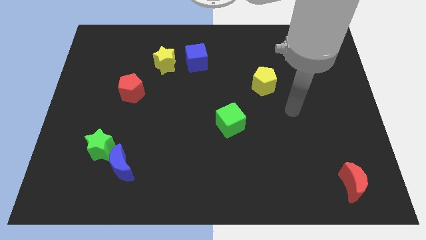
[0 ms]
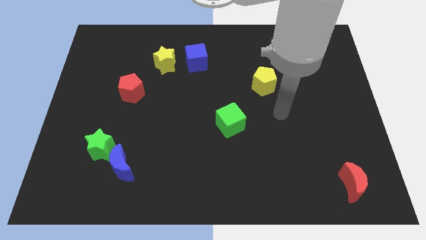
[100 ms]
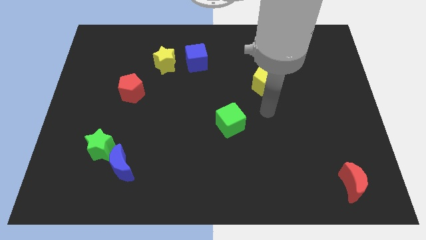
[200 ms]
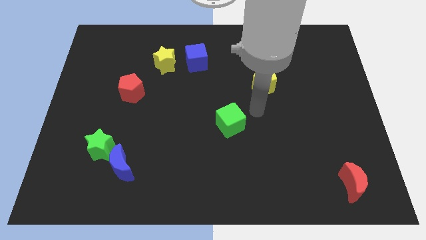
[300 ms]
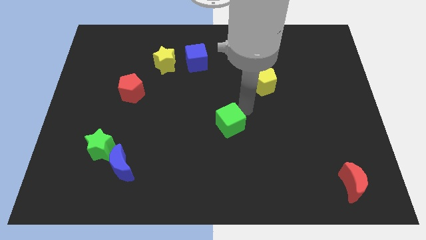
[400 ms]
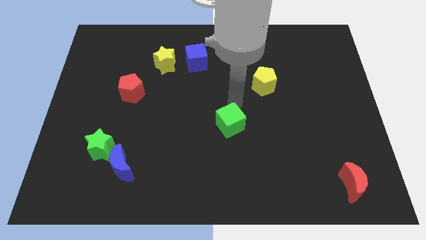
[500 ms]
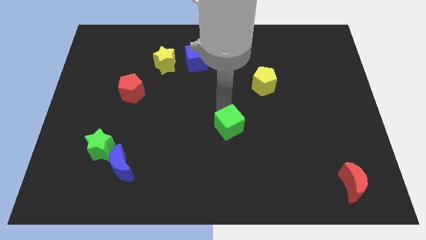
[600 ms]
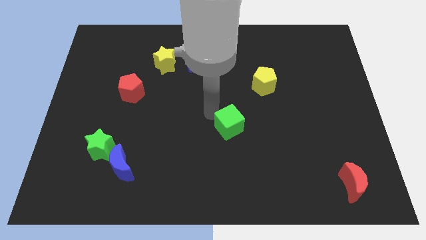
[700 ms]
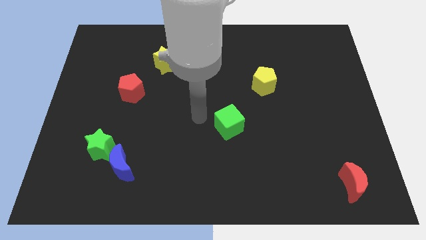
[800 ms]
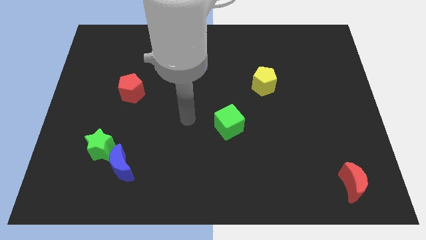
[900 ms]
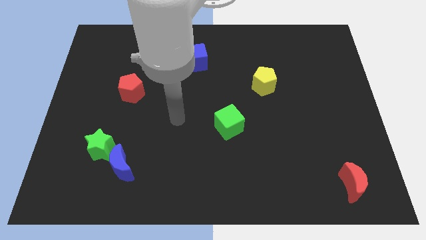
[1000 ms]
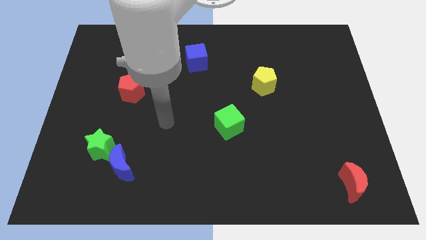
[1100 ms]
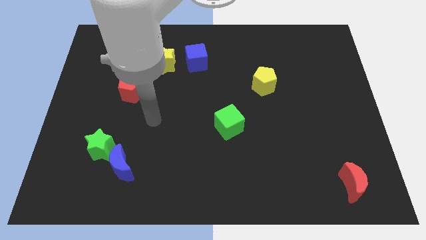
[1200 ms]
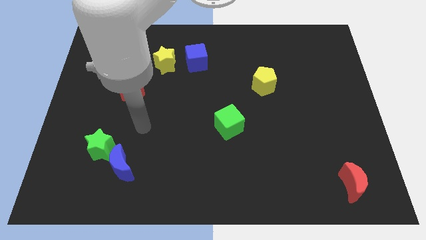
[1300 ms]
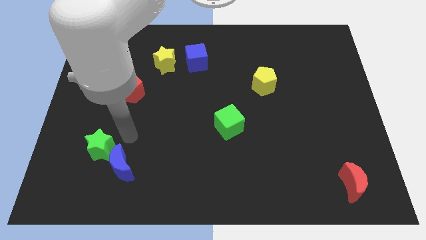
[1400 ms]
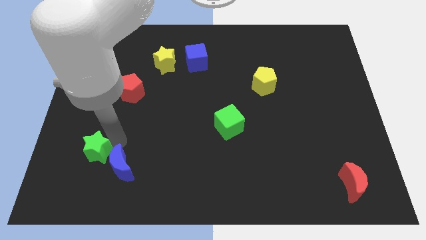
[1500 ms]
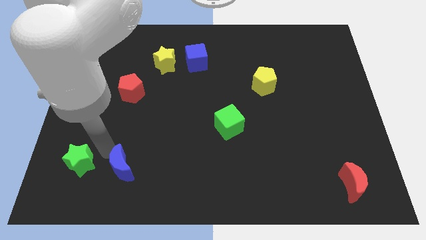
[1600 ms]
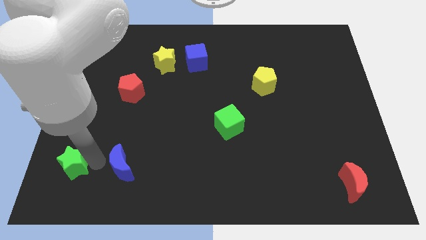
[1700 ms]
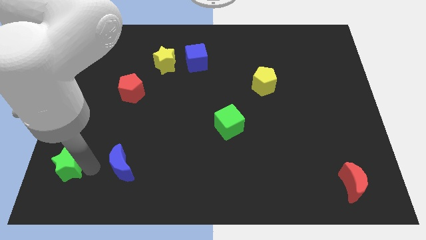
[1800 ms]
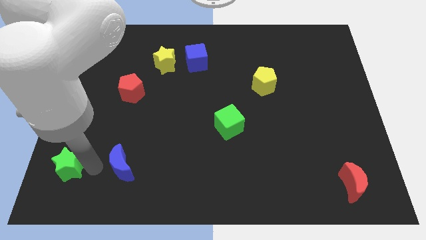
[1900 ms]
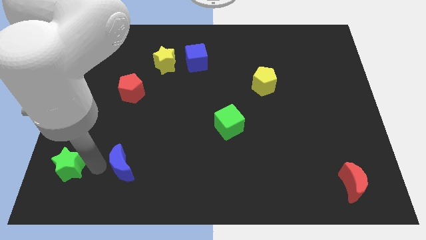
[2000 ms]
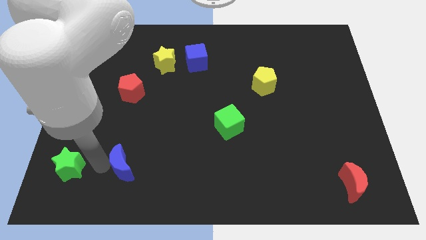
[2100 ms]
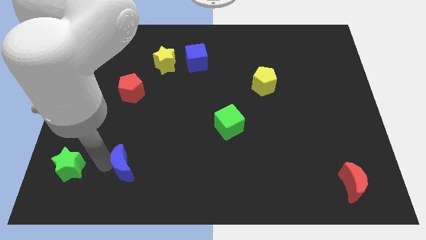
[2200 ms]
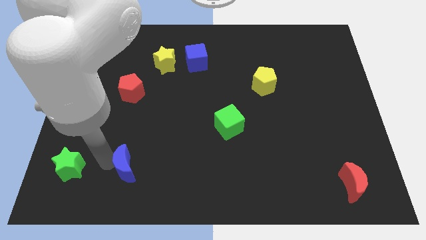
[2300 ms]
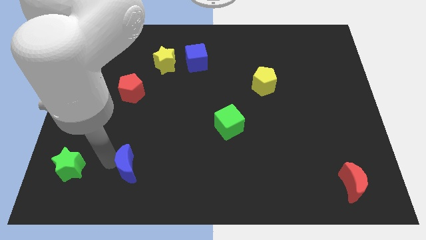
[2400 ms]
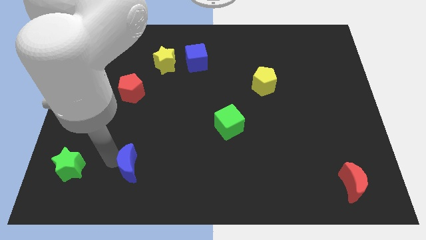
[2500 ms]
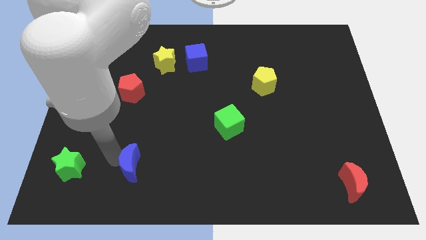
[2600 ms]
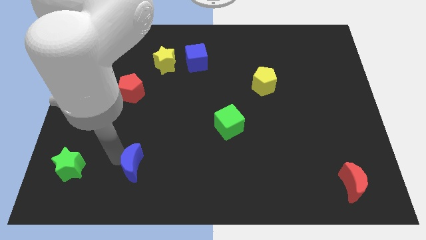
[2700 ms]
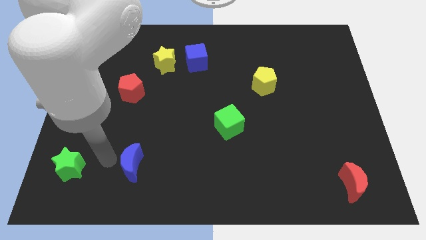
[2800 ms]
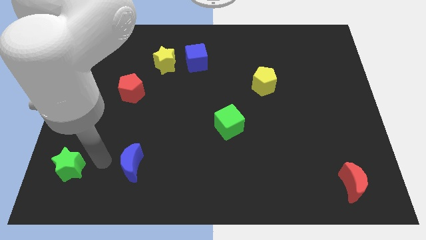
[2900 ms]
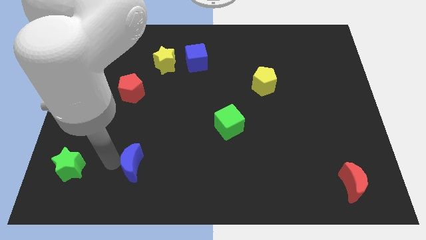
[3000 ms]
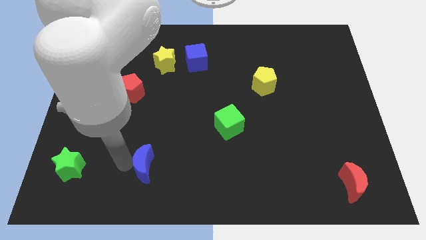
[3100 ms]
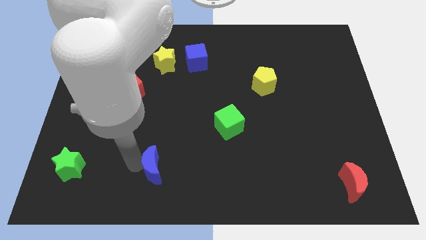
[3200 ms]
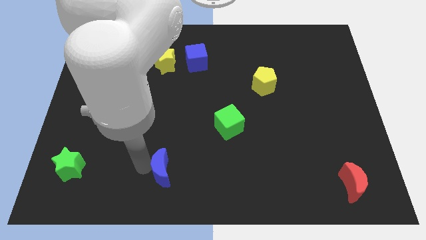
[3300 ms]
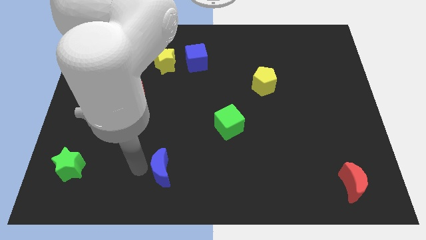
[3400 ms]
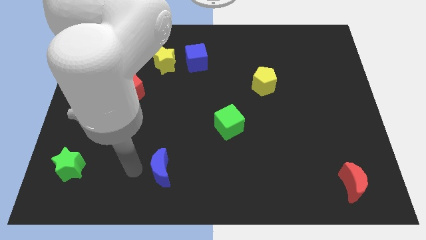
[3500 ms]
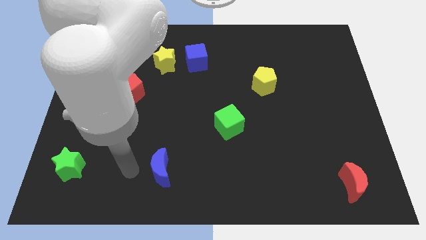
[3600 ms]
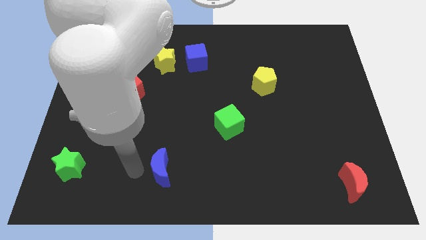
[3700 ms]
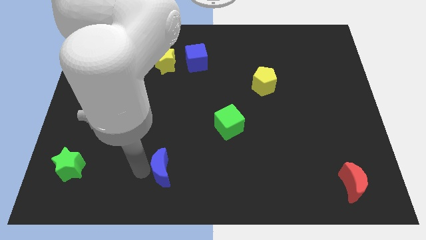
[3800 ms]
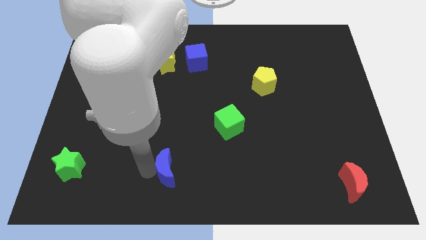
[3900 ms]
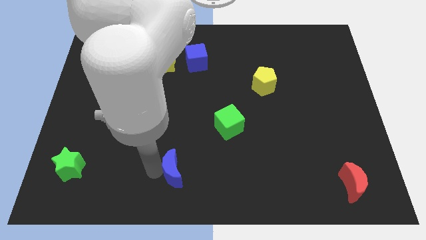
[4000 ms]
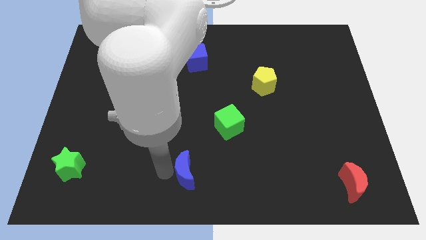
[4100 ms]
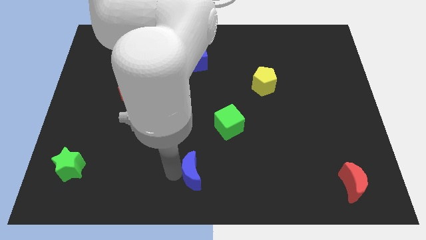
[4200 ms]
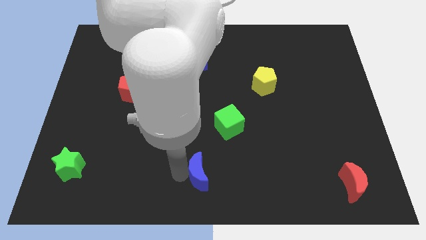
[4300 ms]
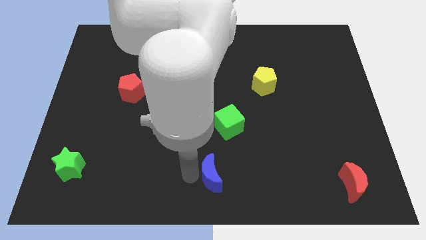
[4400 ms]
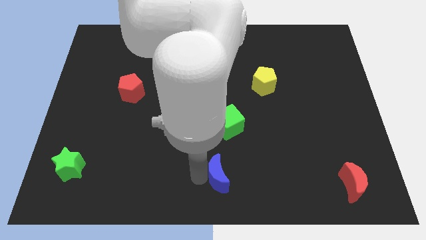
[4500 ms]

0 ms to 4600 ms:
slide the blue moon right

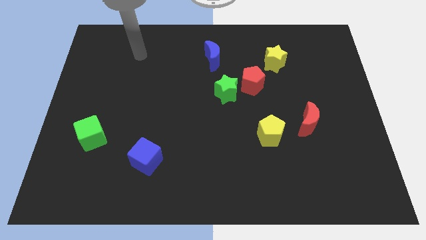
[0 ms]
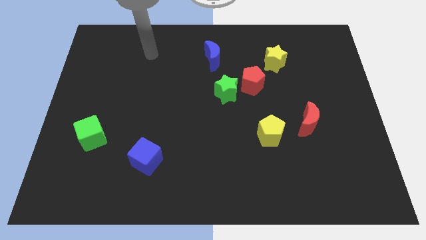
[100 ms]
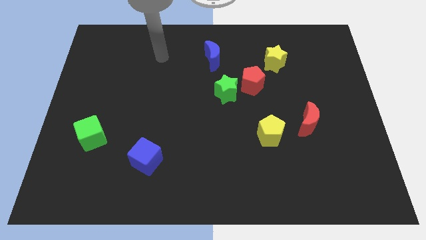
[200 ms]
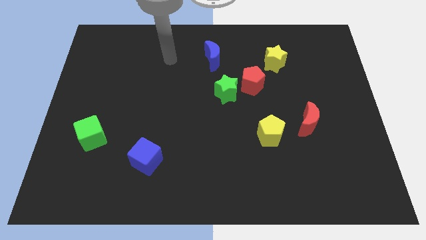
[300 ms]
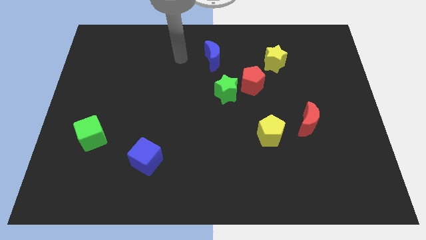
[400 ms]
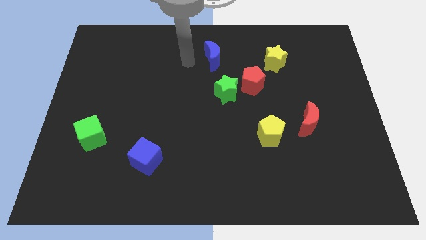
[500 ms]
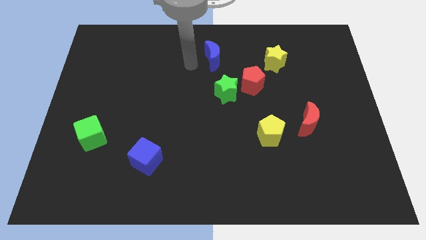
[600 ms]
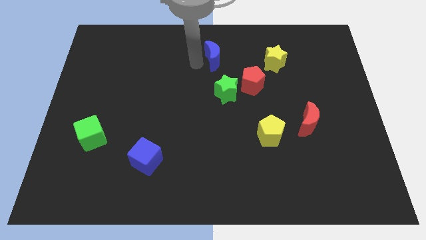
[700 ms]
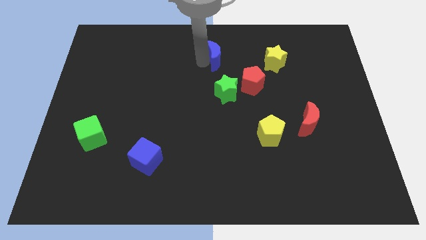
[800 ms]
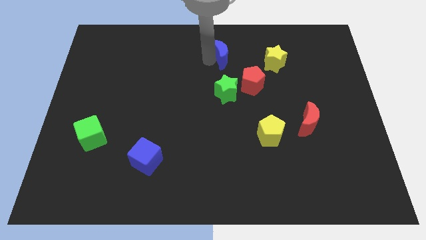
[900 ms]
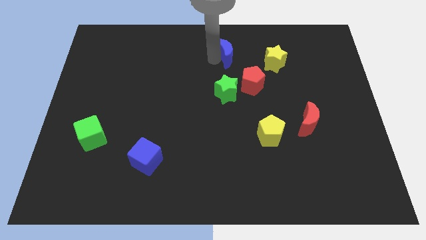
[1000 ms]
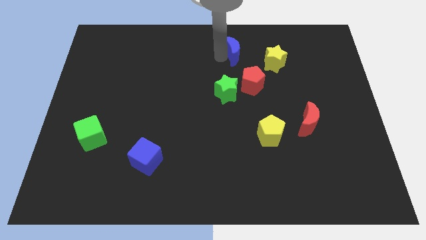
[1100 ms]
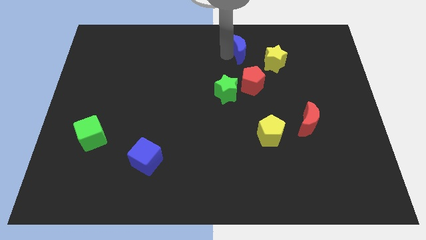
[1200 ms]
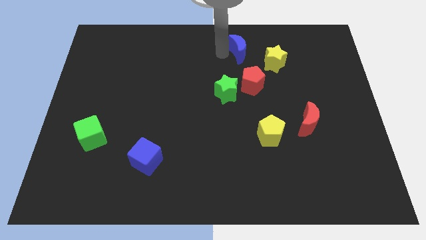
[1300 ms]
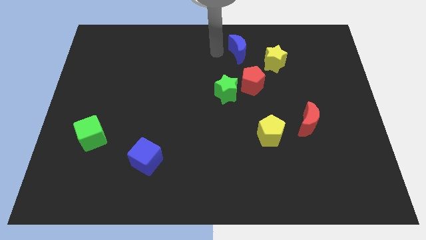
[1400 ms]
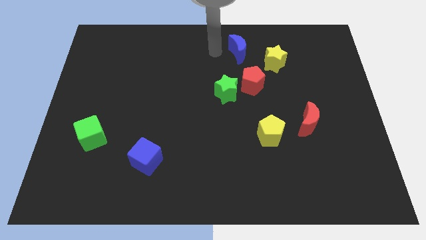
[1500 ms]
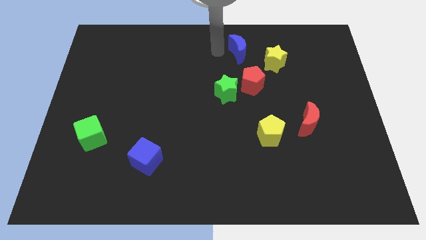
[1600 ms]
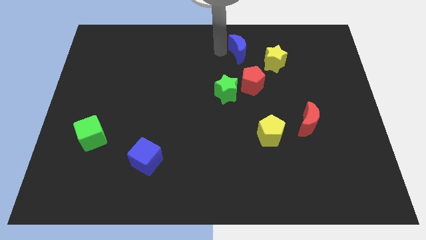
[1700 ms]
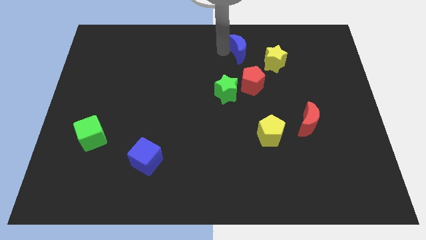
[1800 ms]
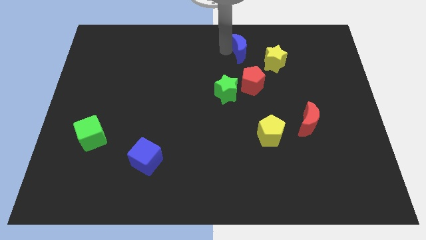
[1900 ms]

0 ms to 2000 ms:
slightly slide the blue moon to the right

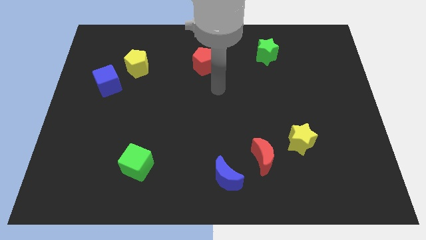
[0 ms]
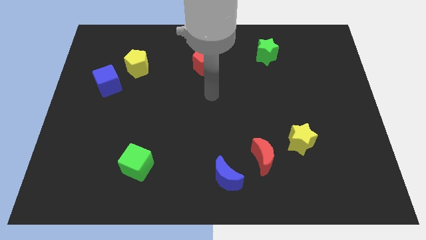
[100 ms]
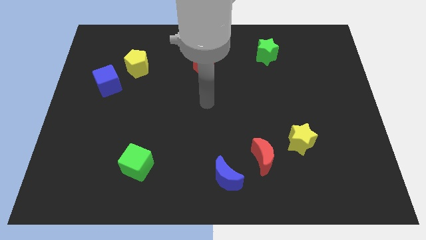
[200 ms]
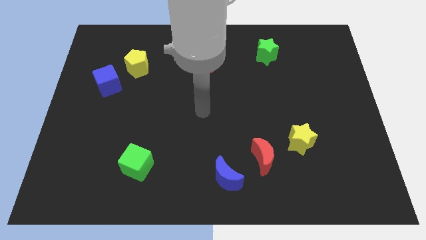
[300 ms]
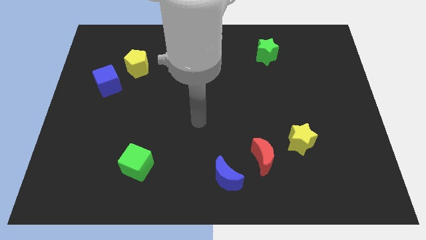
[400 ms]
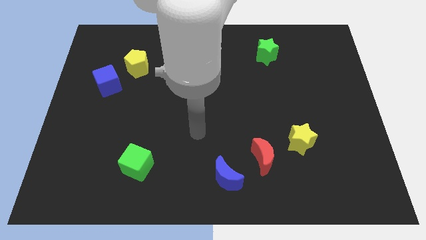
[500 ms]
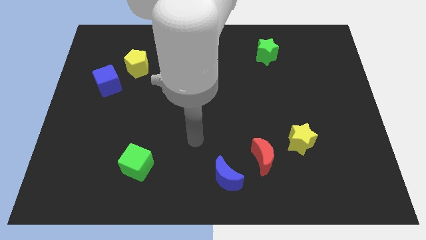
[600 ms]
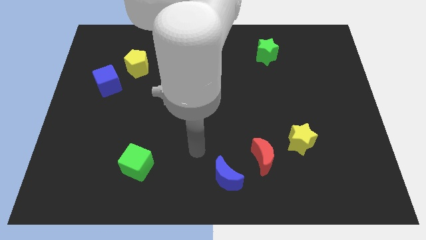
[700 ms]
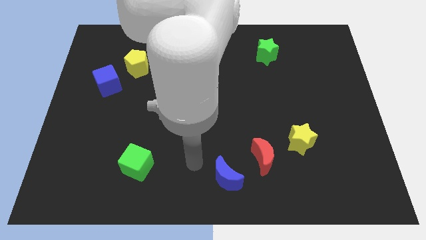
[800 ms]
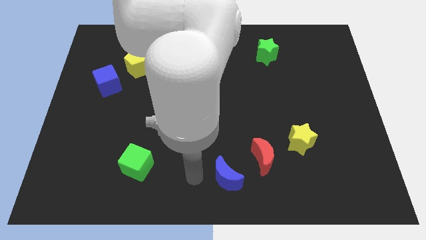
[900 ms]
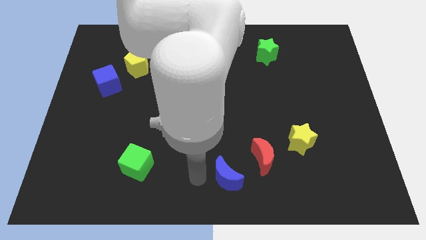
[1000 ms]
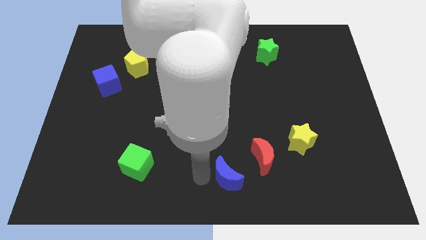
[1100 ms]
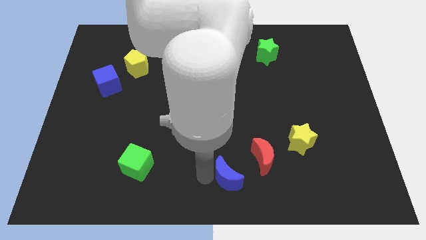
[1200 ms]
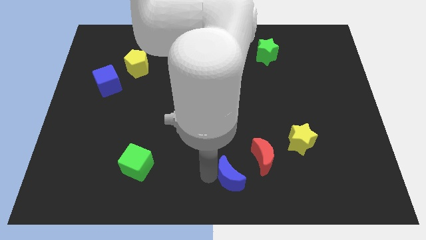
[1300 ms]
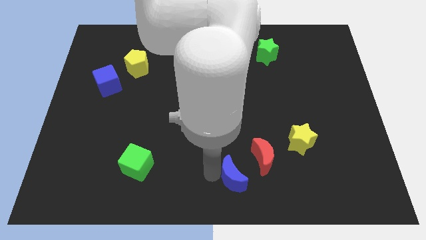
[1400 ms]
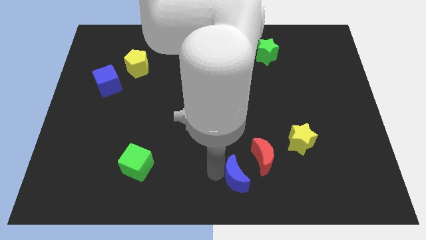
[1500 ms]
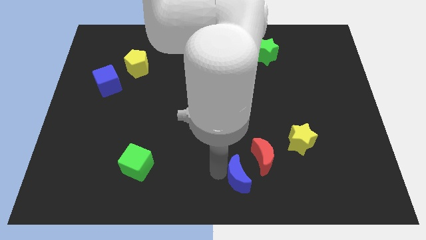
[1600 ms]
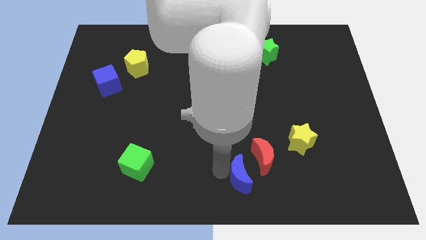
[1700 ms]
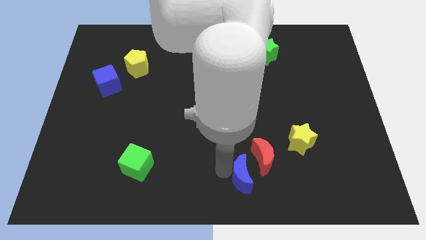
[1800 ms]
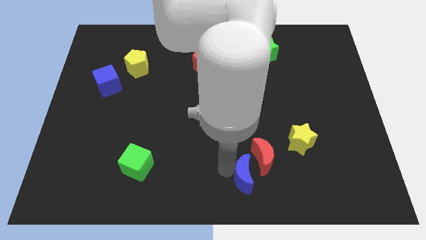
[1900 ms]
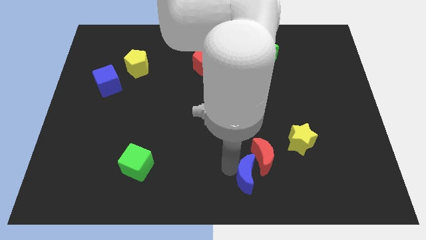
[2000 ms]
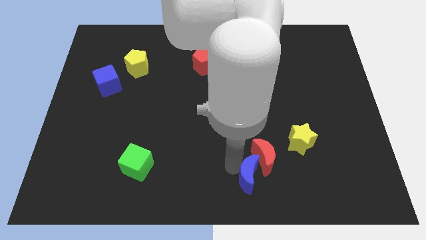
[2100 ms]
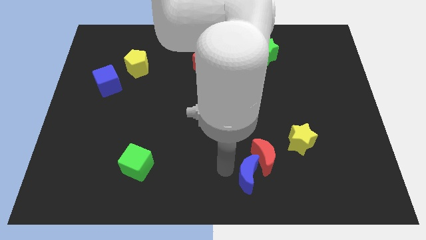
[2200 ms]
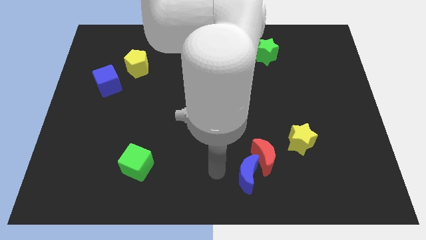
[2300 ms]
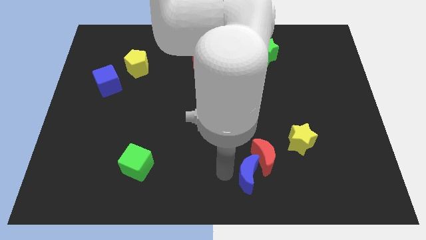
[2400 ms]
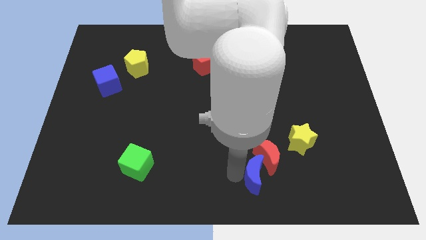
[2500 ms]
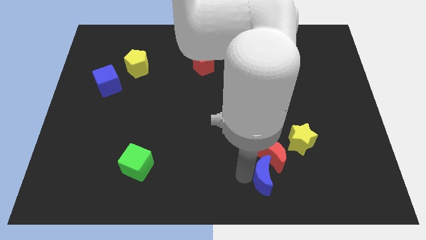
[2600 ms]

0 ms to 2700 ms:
move the blue moon a little bit to the right
